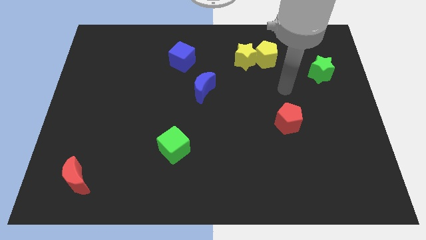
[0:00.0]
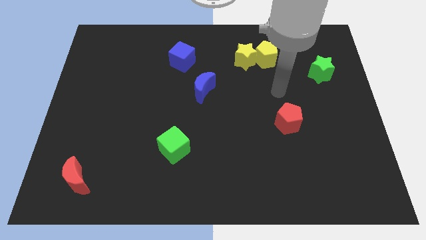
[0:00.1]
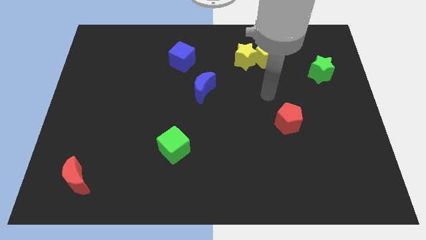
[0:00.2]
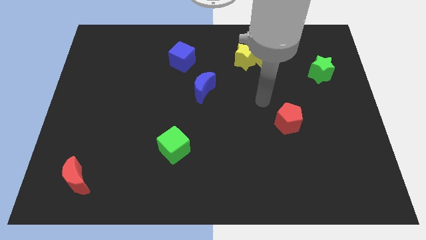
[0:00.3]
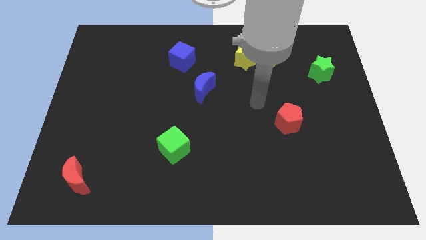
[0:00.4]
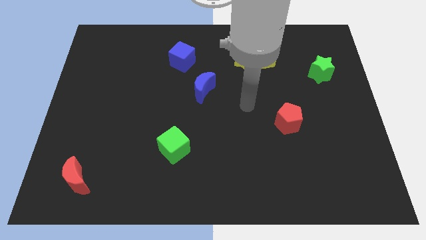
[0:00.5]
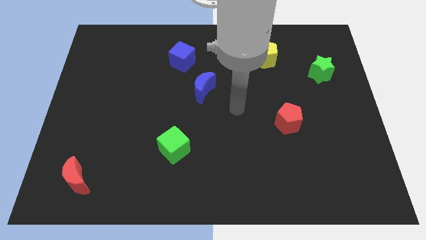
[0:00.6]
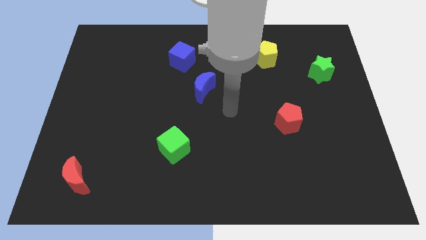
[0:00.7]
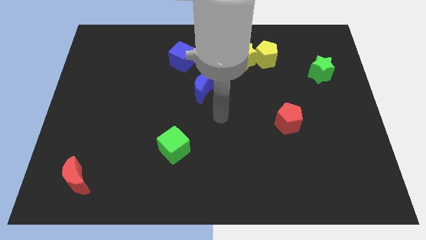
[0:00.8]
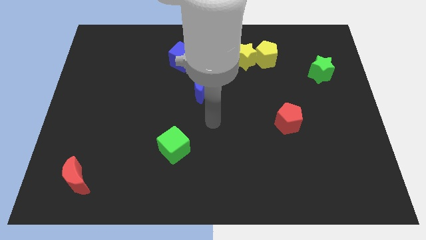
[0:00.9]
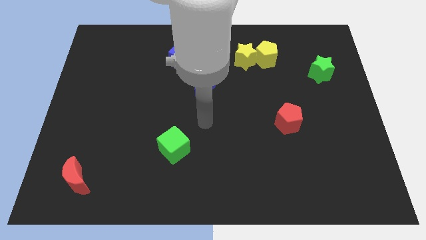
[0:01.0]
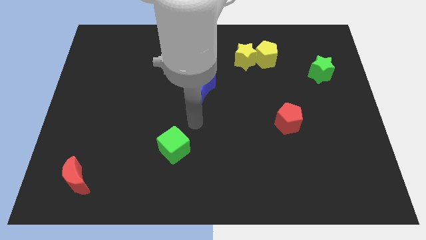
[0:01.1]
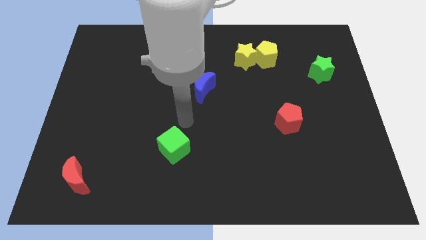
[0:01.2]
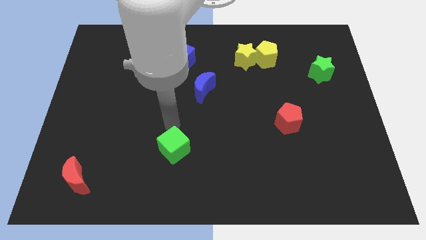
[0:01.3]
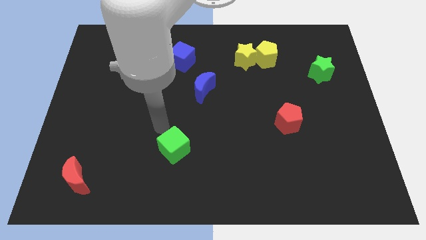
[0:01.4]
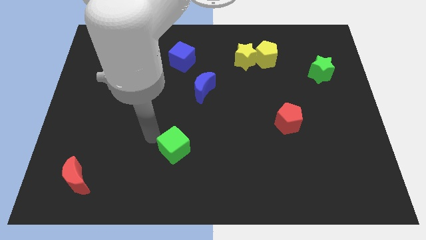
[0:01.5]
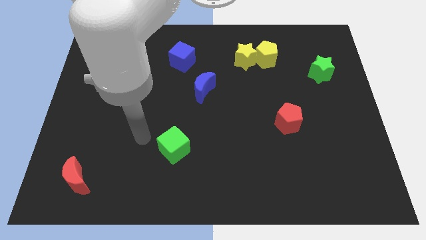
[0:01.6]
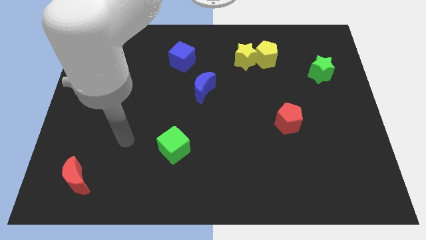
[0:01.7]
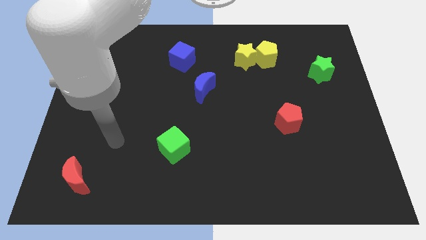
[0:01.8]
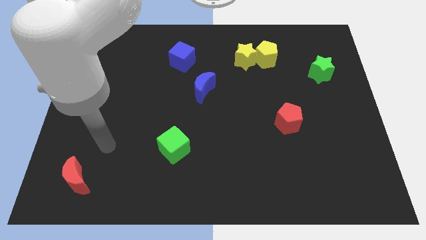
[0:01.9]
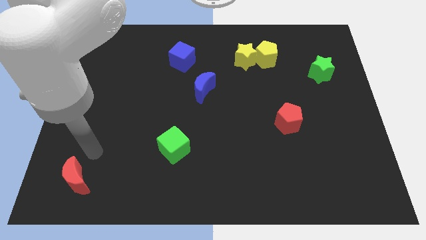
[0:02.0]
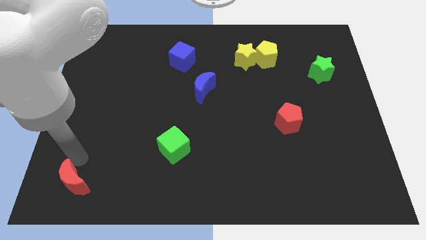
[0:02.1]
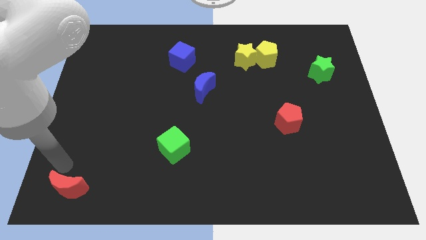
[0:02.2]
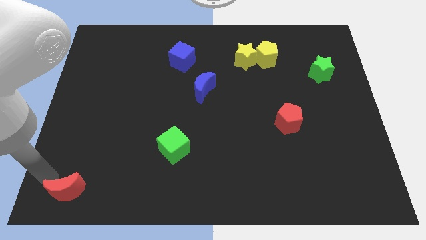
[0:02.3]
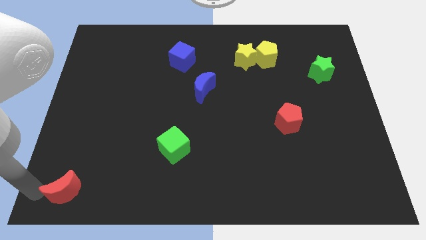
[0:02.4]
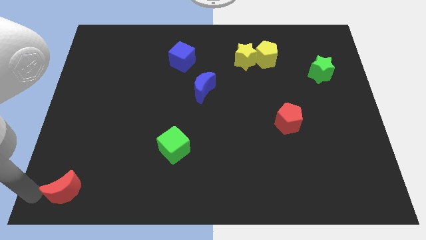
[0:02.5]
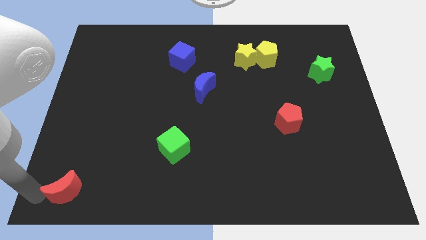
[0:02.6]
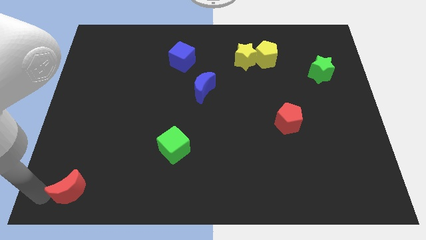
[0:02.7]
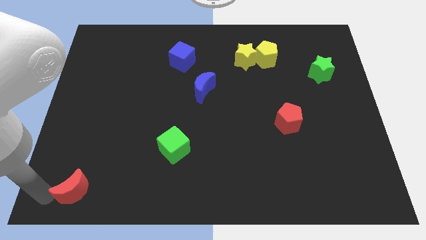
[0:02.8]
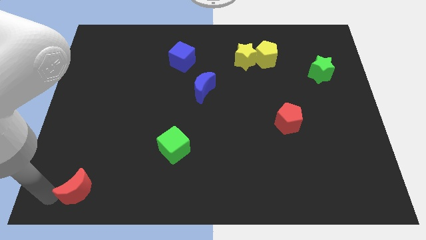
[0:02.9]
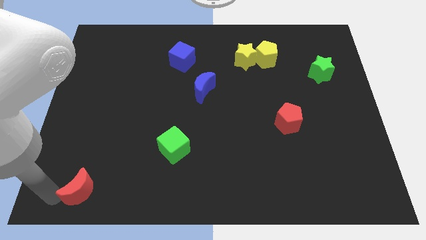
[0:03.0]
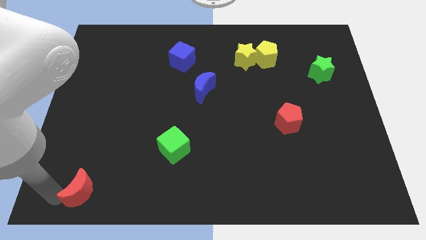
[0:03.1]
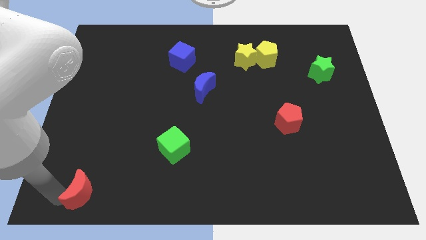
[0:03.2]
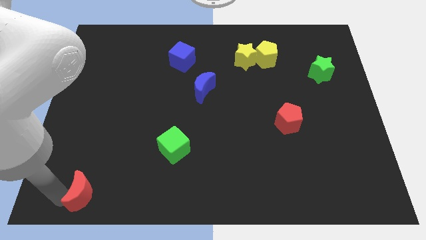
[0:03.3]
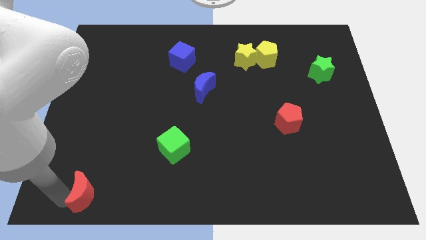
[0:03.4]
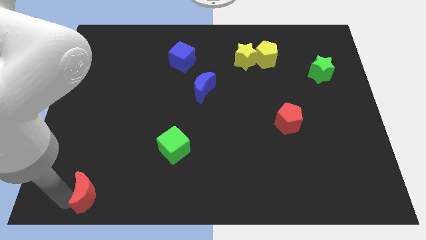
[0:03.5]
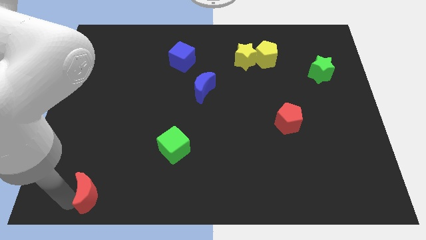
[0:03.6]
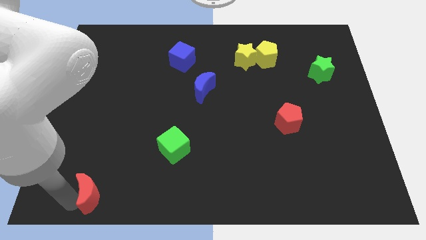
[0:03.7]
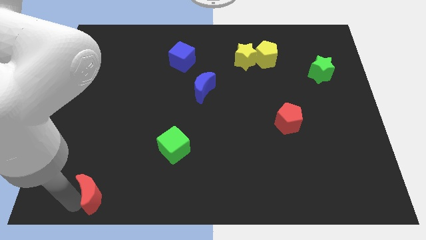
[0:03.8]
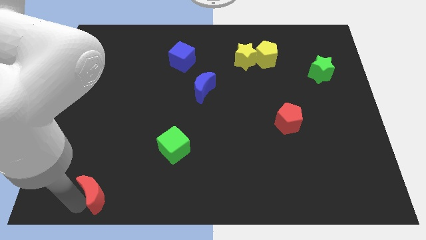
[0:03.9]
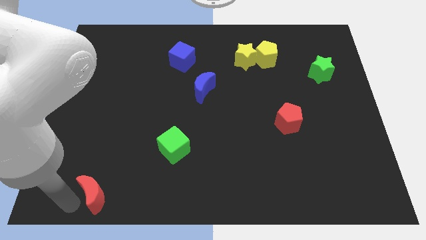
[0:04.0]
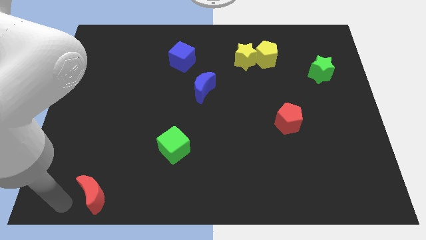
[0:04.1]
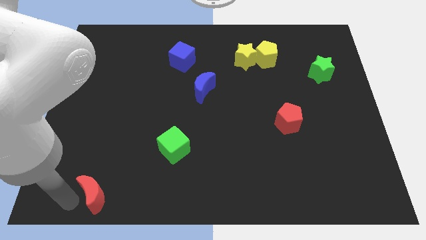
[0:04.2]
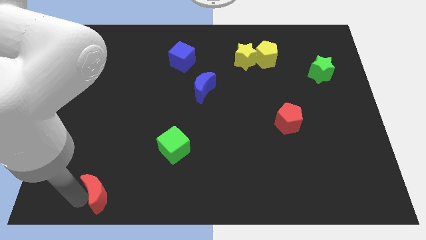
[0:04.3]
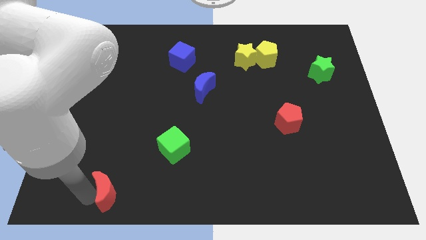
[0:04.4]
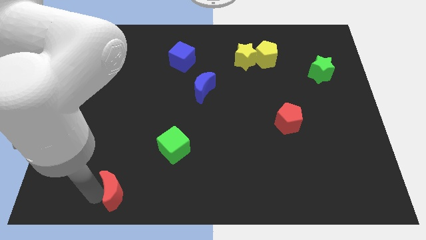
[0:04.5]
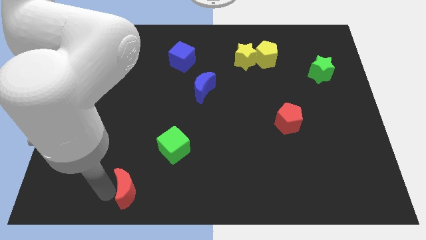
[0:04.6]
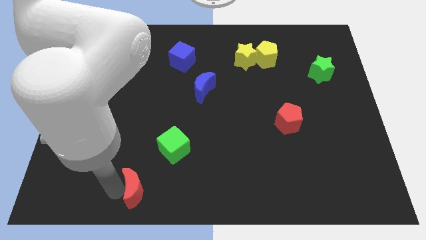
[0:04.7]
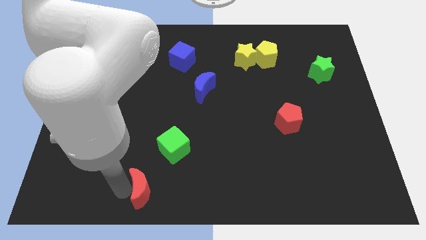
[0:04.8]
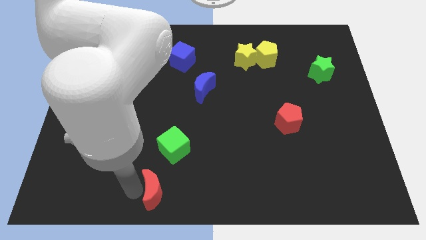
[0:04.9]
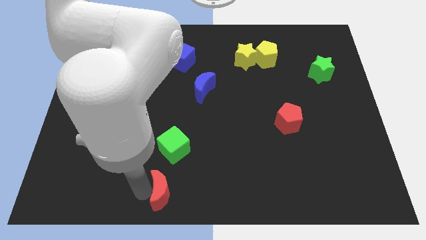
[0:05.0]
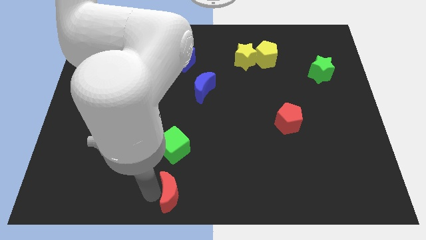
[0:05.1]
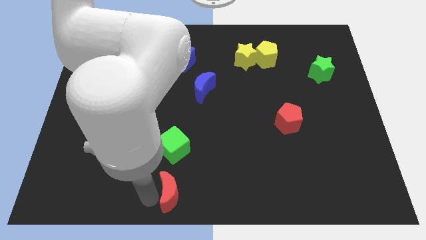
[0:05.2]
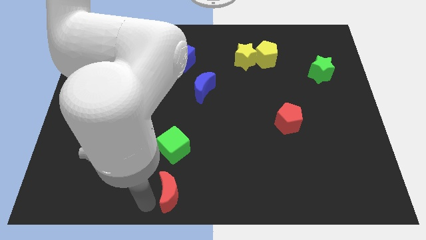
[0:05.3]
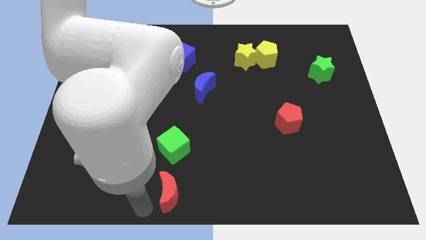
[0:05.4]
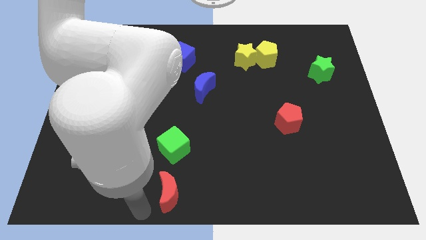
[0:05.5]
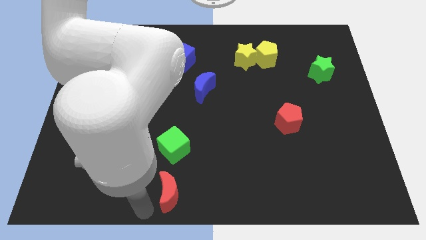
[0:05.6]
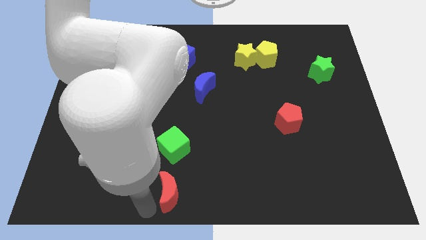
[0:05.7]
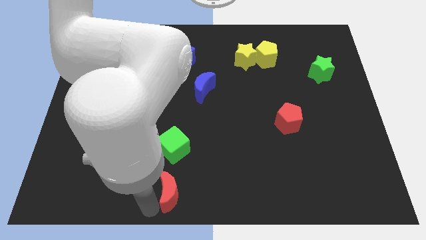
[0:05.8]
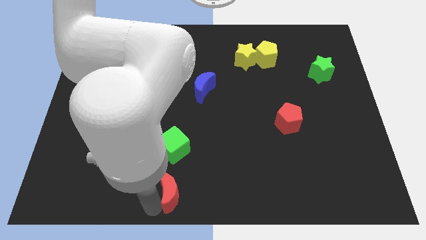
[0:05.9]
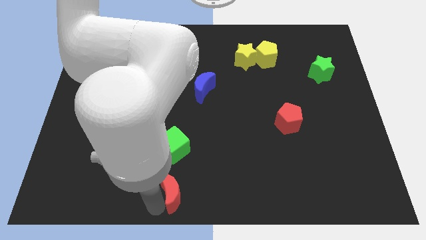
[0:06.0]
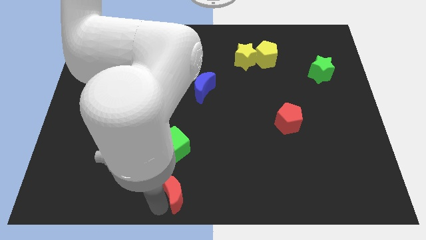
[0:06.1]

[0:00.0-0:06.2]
slide the red moon right

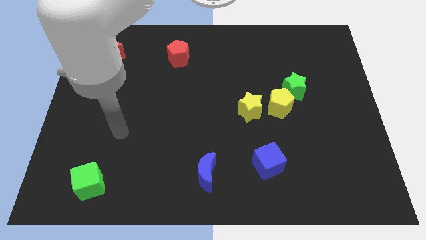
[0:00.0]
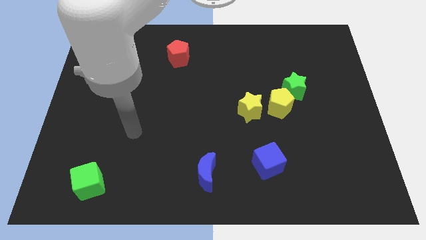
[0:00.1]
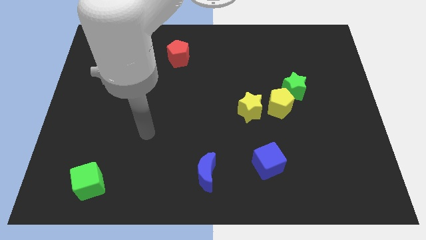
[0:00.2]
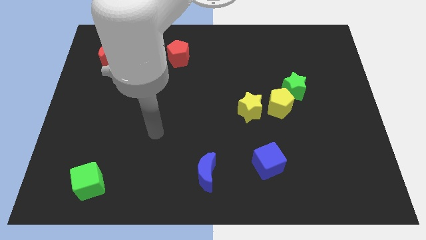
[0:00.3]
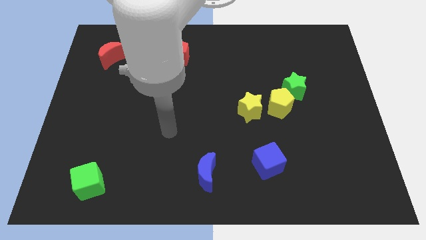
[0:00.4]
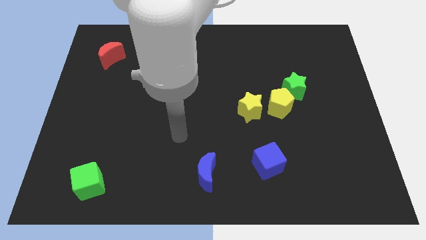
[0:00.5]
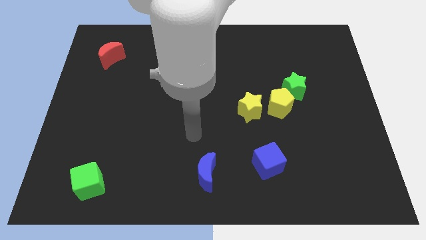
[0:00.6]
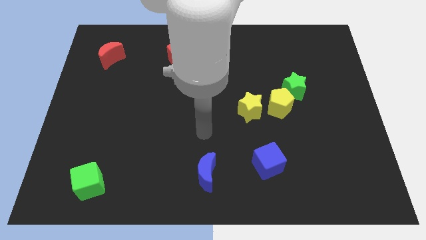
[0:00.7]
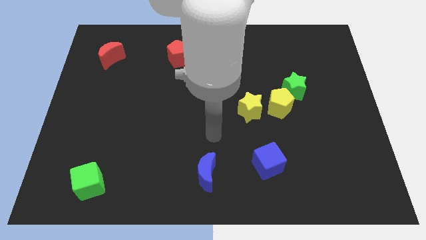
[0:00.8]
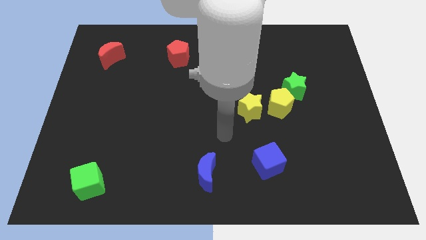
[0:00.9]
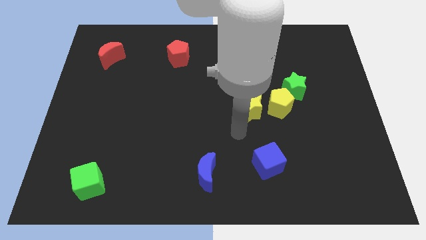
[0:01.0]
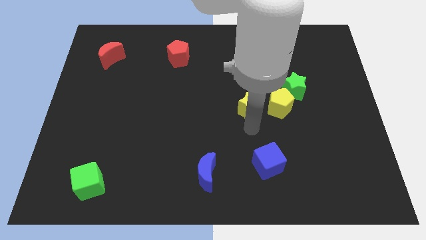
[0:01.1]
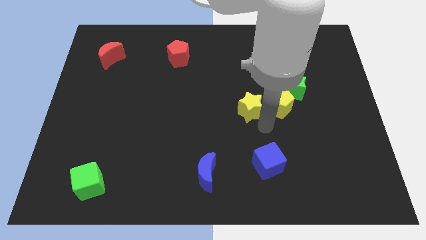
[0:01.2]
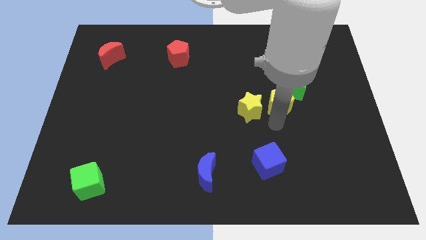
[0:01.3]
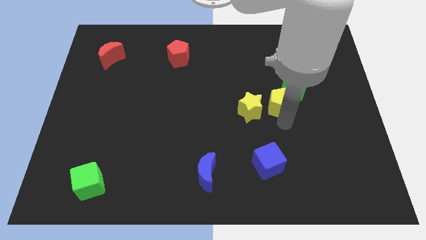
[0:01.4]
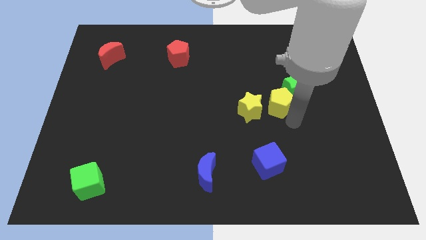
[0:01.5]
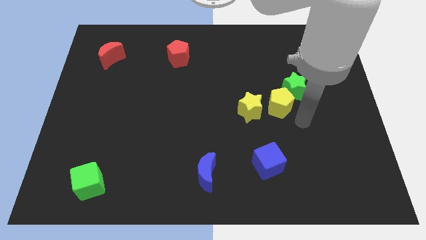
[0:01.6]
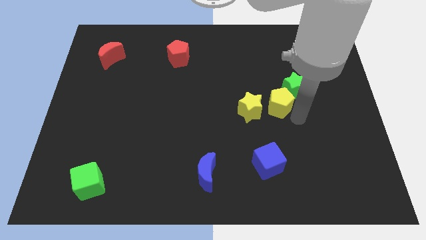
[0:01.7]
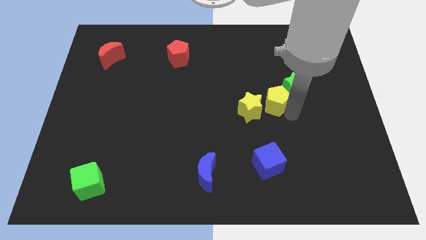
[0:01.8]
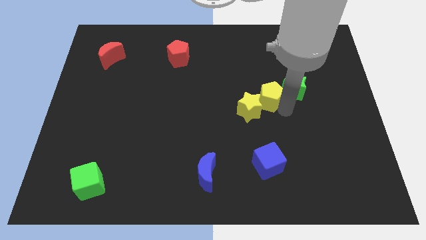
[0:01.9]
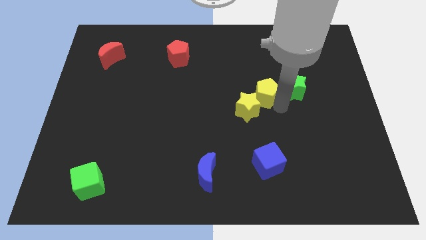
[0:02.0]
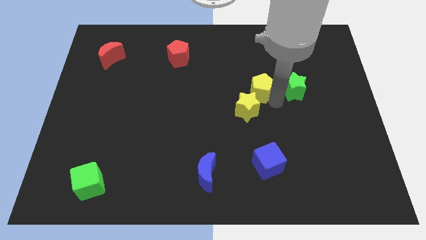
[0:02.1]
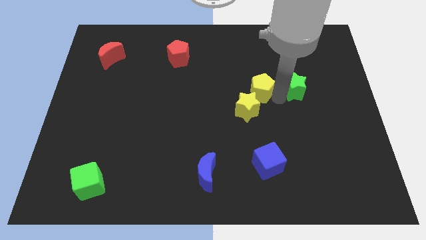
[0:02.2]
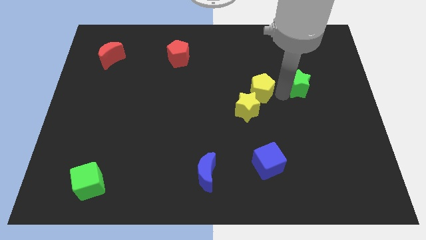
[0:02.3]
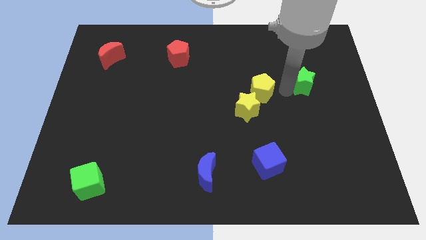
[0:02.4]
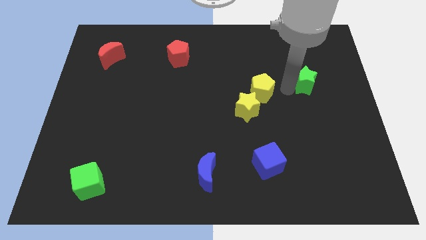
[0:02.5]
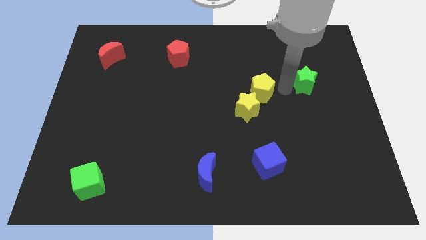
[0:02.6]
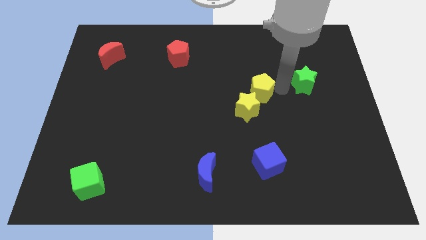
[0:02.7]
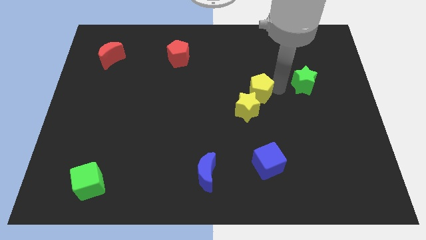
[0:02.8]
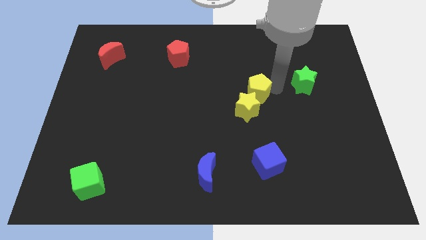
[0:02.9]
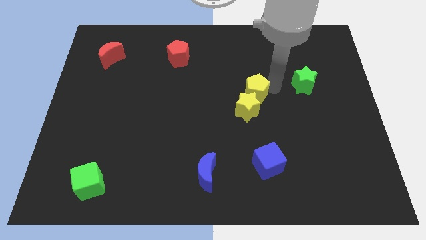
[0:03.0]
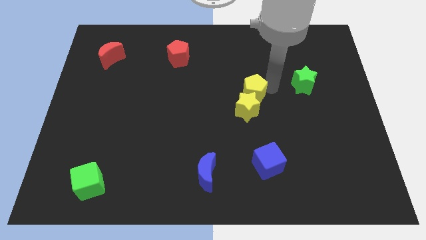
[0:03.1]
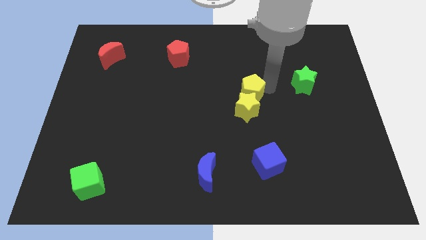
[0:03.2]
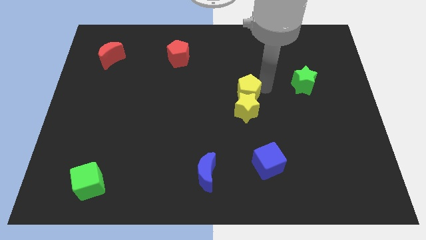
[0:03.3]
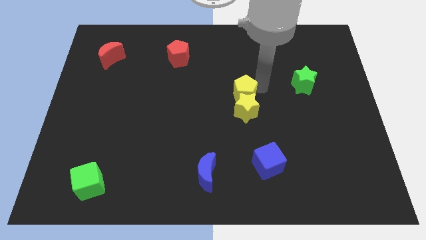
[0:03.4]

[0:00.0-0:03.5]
slightly move the yellow pentagon left
